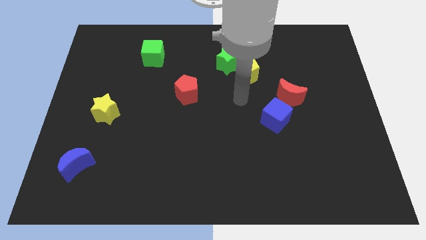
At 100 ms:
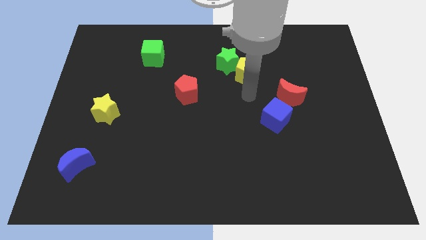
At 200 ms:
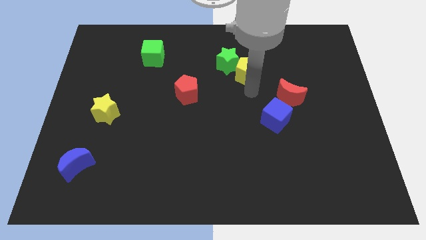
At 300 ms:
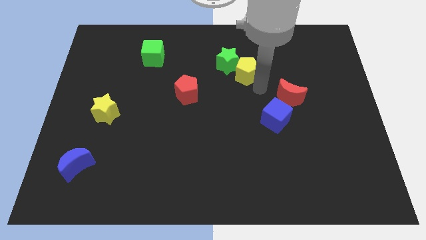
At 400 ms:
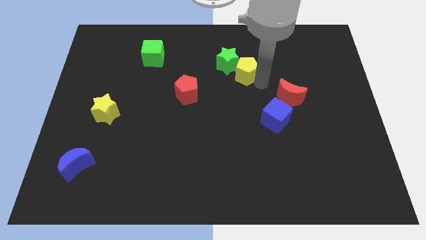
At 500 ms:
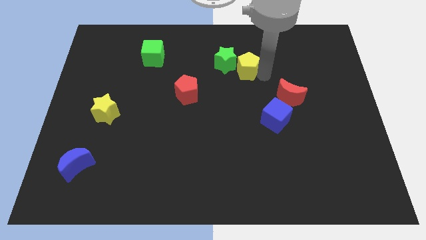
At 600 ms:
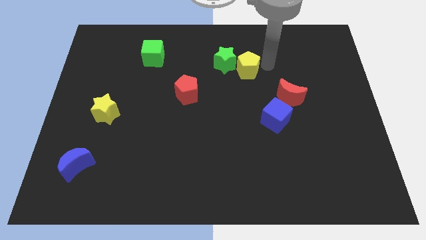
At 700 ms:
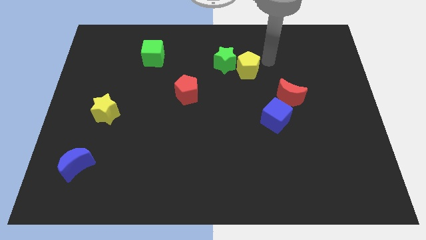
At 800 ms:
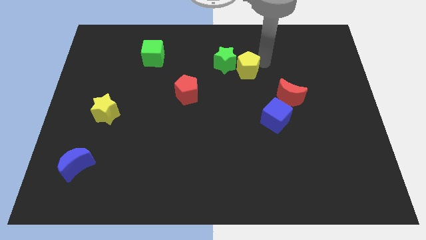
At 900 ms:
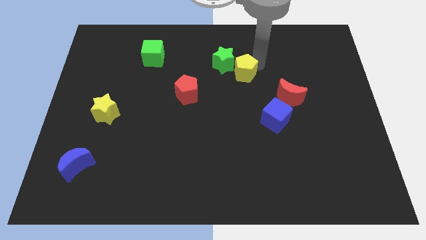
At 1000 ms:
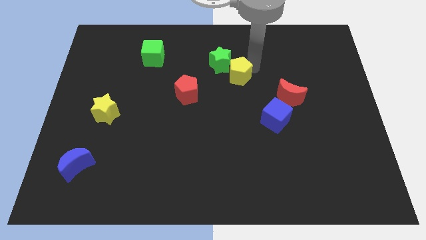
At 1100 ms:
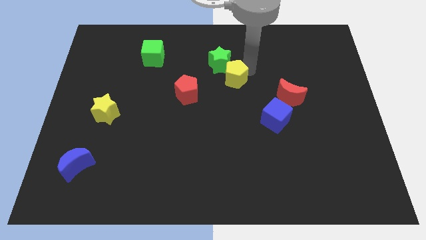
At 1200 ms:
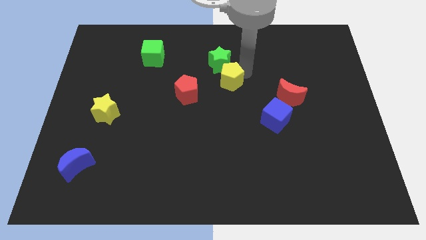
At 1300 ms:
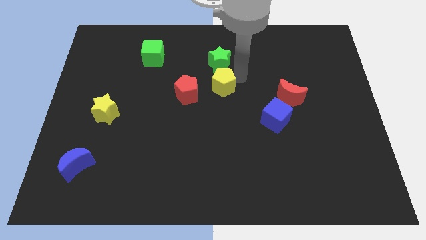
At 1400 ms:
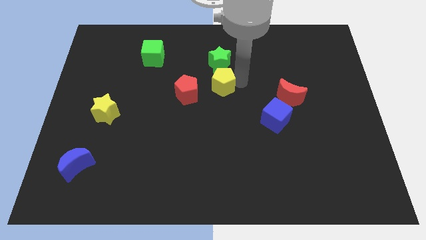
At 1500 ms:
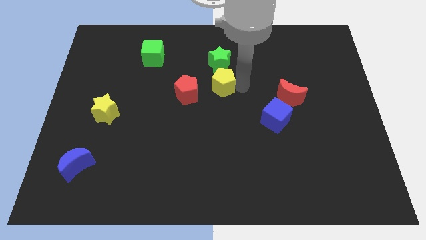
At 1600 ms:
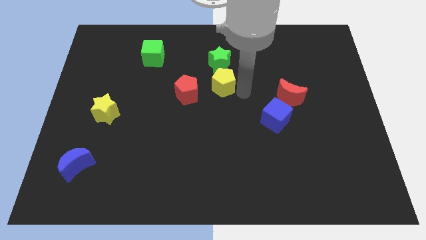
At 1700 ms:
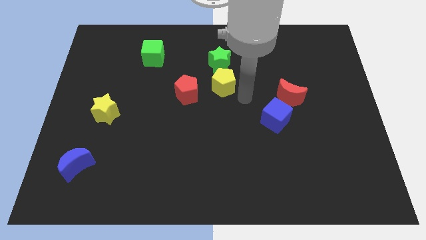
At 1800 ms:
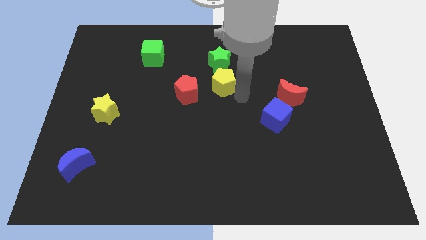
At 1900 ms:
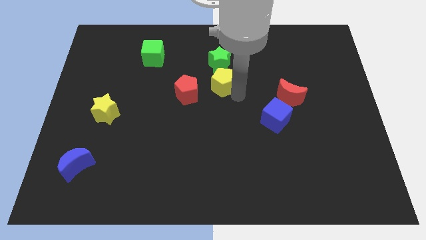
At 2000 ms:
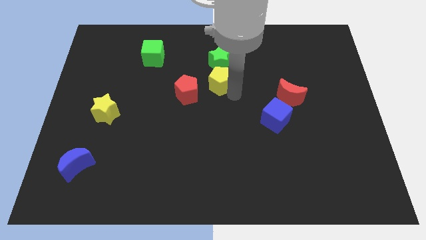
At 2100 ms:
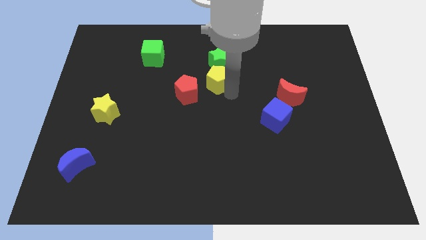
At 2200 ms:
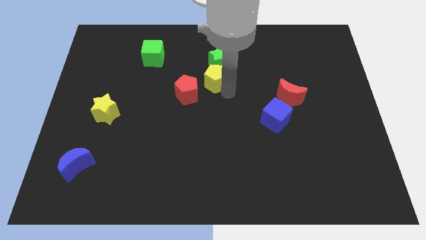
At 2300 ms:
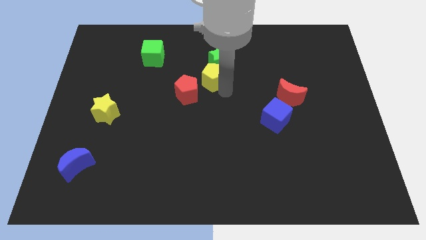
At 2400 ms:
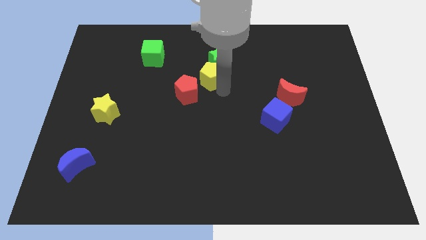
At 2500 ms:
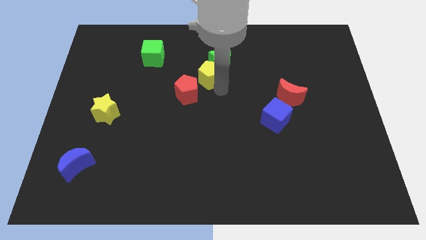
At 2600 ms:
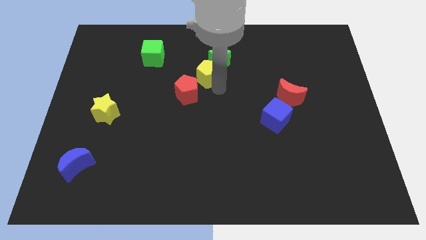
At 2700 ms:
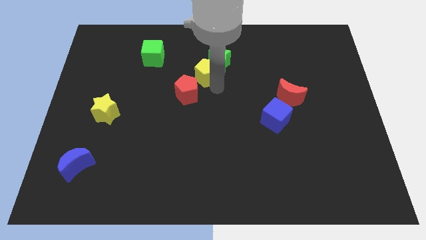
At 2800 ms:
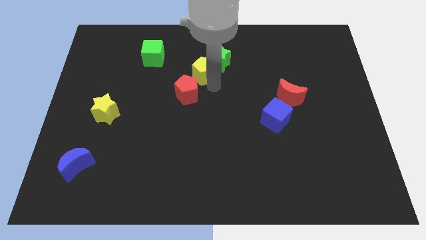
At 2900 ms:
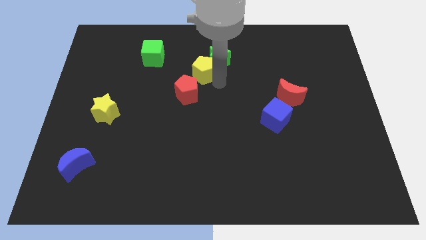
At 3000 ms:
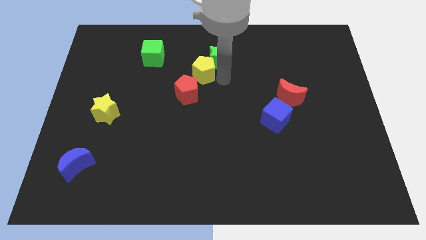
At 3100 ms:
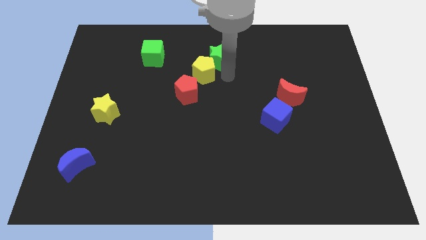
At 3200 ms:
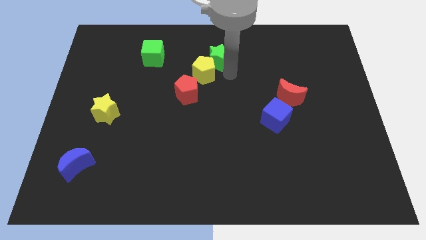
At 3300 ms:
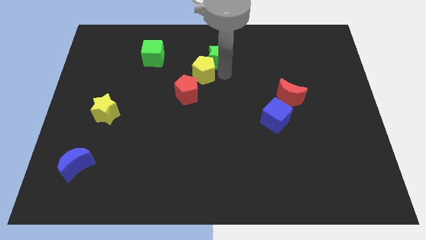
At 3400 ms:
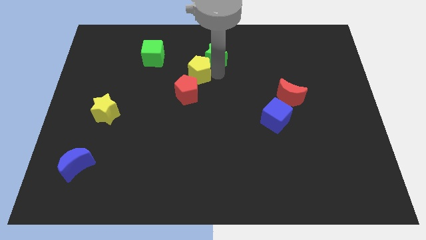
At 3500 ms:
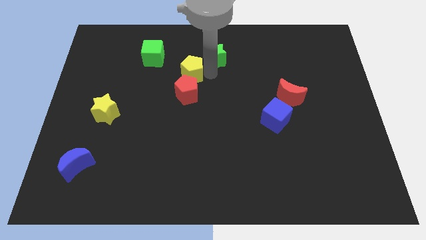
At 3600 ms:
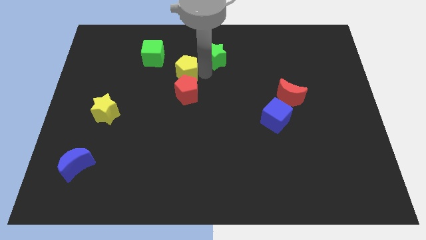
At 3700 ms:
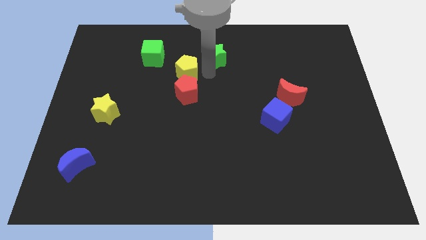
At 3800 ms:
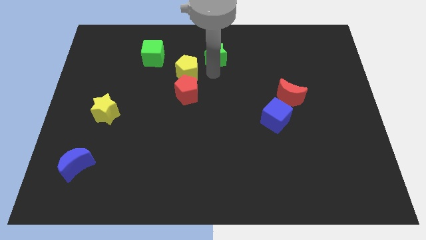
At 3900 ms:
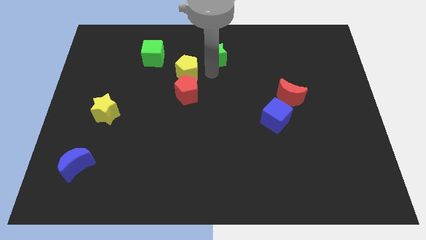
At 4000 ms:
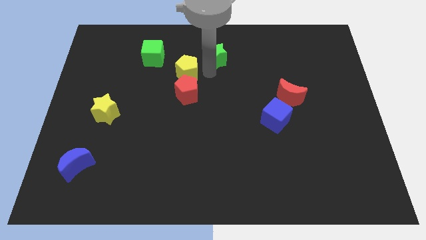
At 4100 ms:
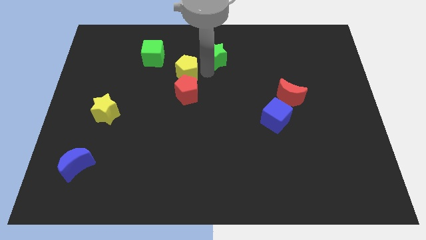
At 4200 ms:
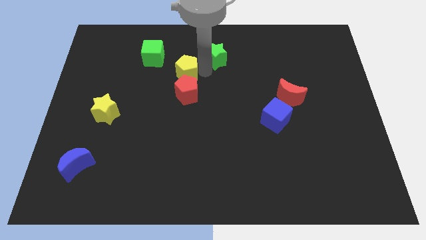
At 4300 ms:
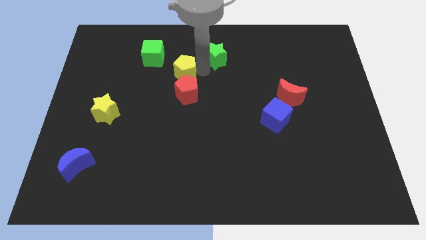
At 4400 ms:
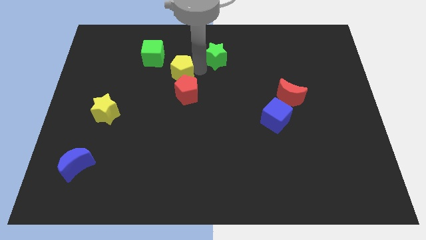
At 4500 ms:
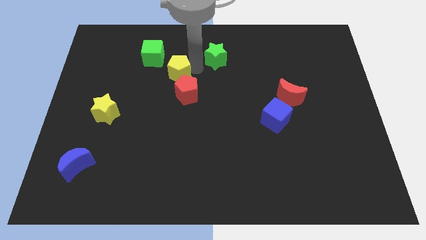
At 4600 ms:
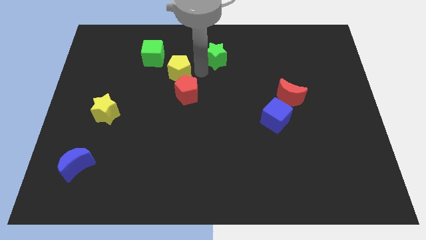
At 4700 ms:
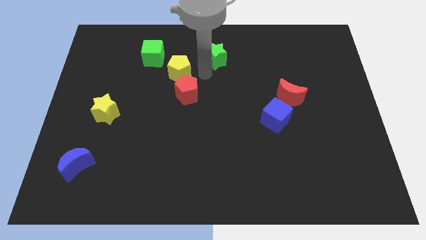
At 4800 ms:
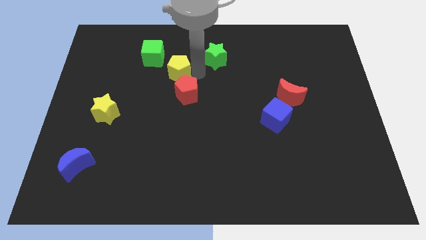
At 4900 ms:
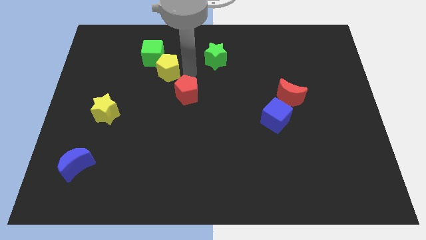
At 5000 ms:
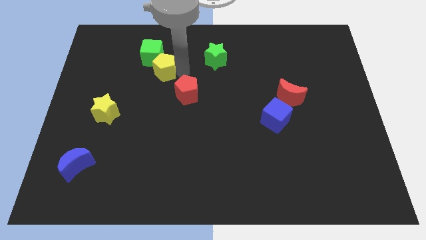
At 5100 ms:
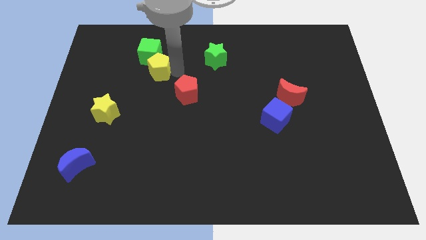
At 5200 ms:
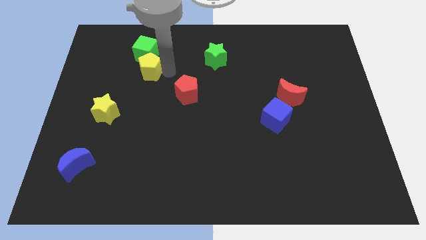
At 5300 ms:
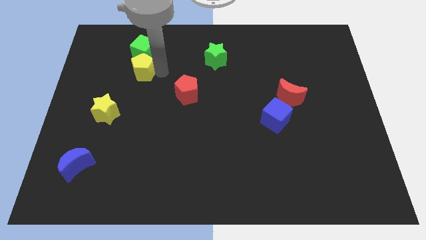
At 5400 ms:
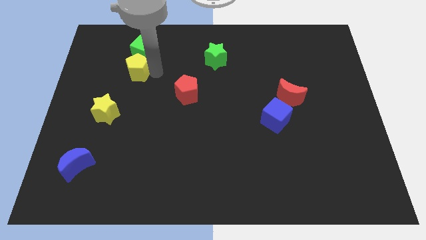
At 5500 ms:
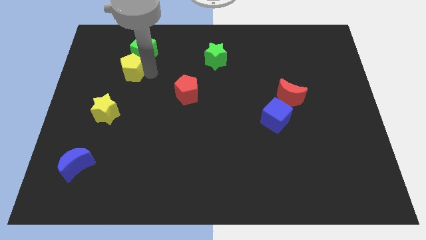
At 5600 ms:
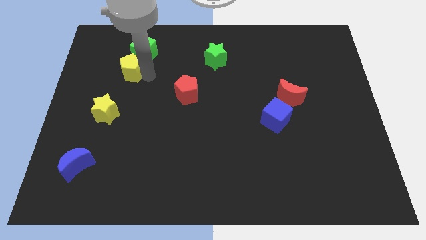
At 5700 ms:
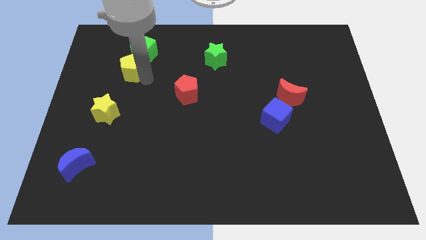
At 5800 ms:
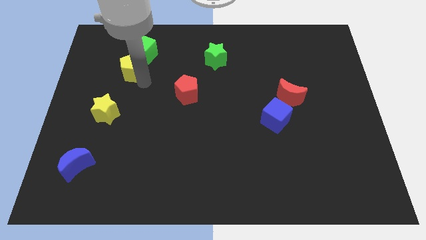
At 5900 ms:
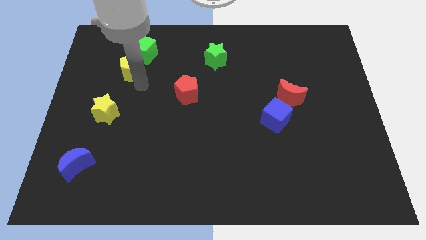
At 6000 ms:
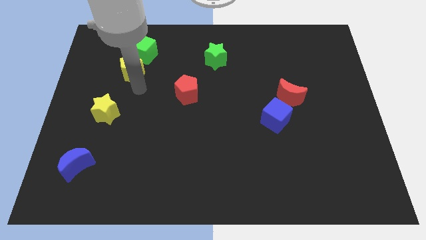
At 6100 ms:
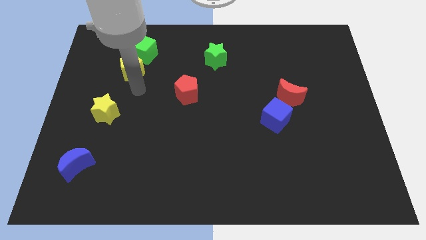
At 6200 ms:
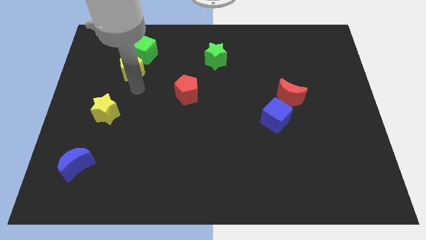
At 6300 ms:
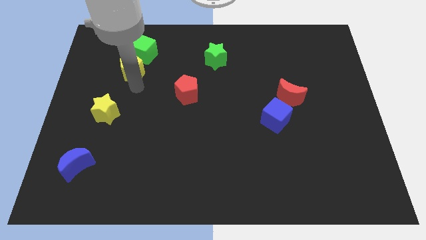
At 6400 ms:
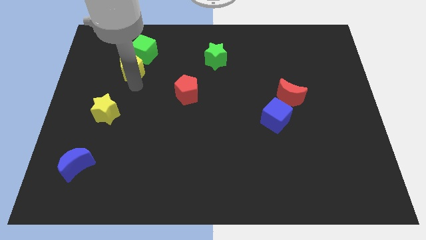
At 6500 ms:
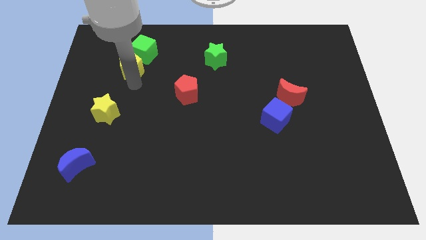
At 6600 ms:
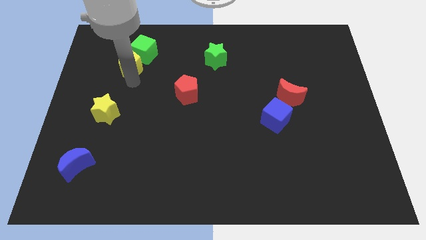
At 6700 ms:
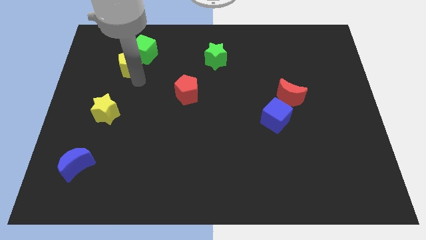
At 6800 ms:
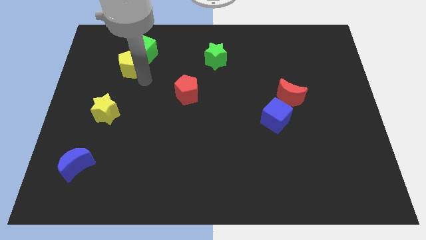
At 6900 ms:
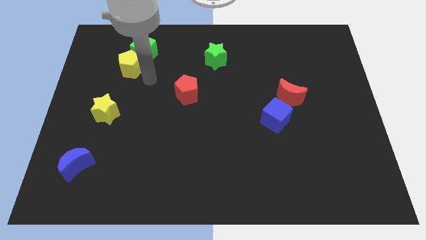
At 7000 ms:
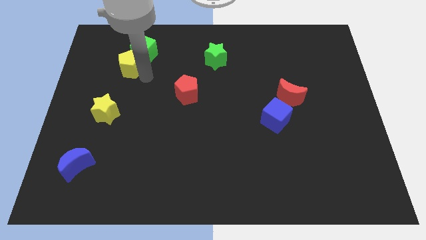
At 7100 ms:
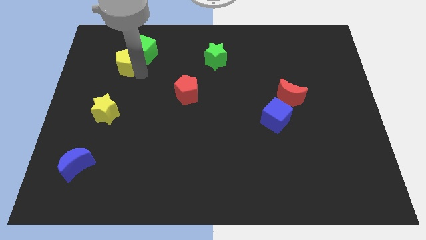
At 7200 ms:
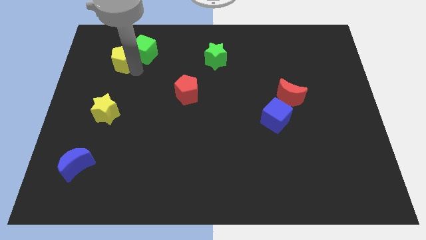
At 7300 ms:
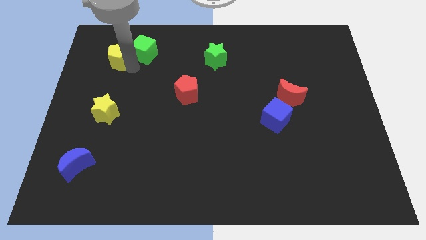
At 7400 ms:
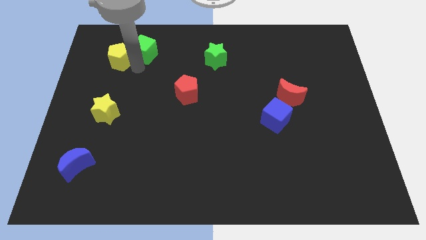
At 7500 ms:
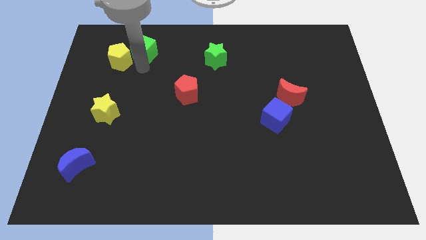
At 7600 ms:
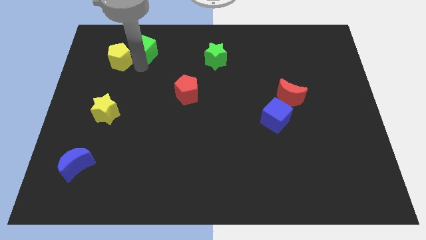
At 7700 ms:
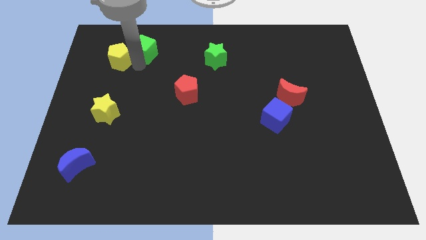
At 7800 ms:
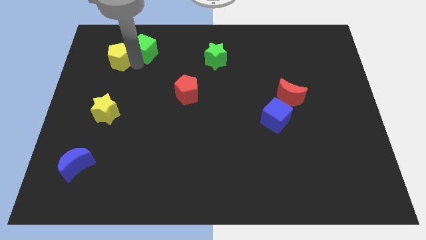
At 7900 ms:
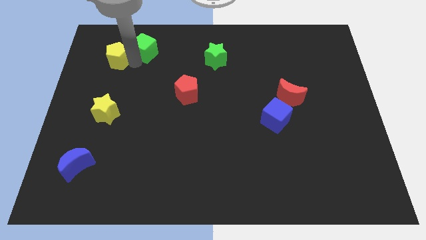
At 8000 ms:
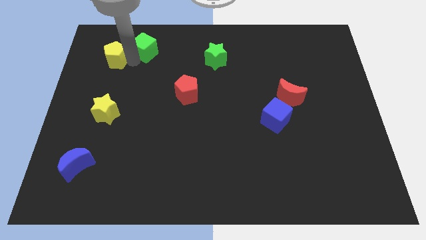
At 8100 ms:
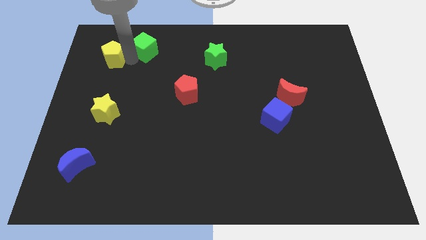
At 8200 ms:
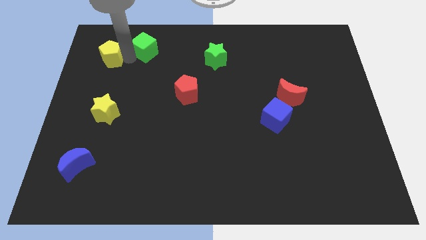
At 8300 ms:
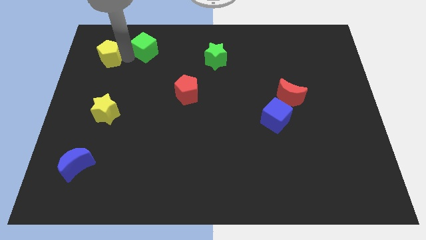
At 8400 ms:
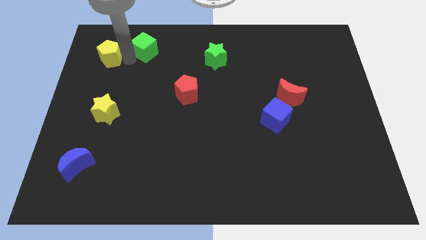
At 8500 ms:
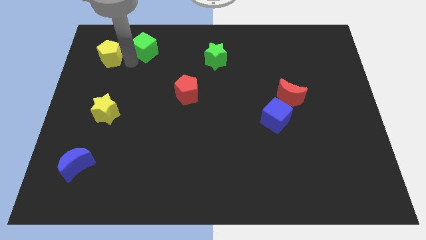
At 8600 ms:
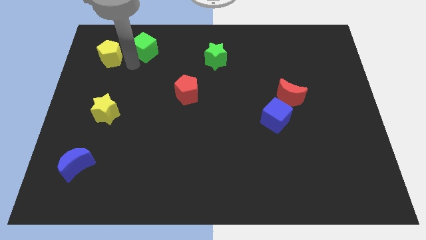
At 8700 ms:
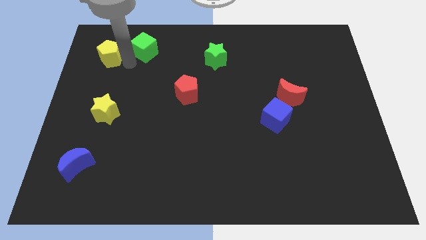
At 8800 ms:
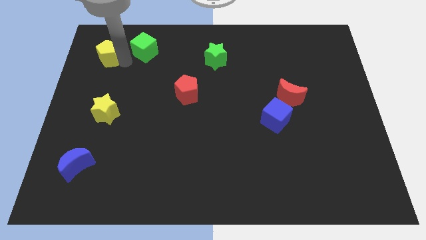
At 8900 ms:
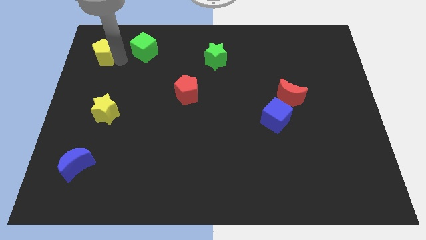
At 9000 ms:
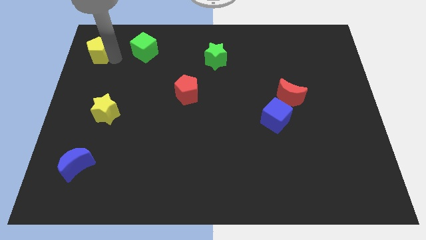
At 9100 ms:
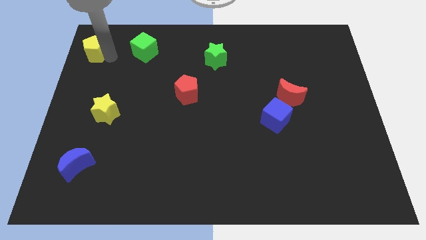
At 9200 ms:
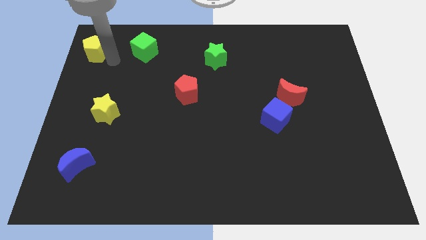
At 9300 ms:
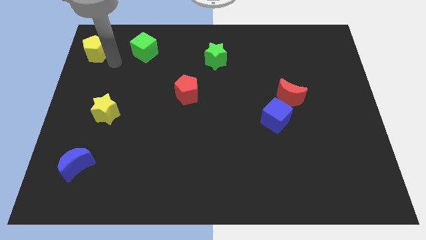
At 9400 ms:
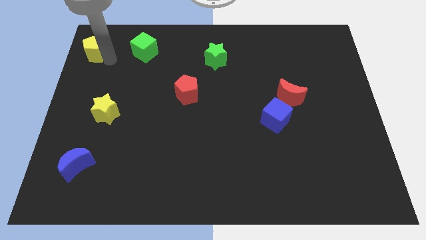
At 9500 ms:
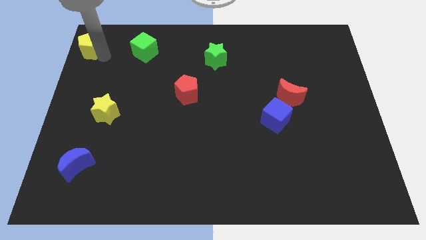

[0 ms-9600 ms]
move the yellow pentagon to the upper left corner
